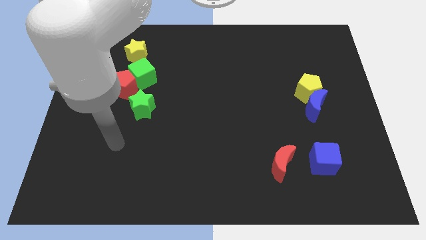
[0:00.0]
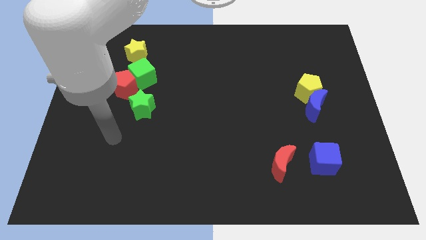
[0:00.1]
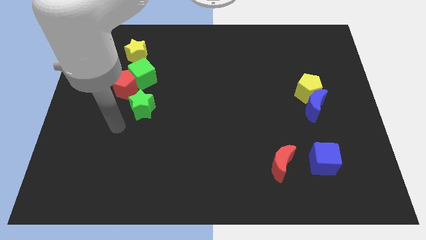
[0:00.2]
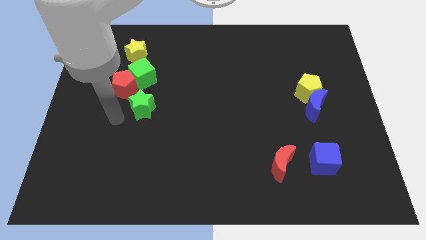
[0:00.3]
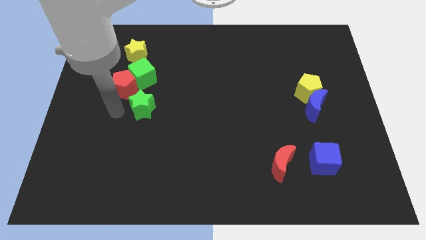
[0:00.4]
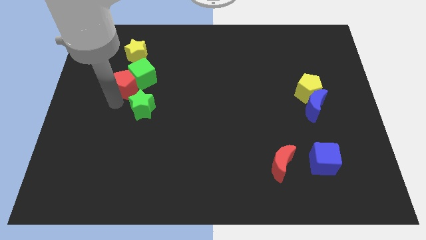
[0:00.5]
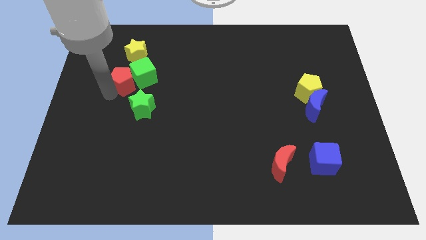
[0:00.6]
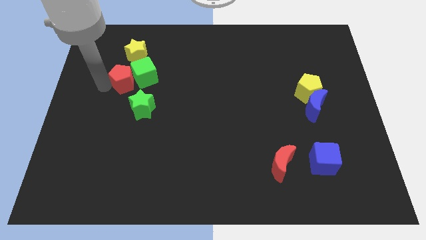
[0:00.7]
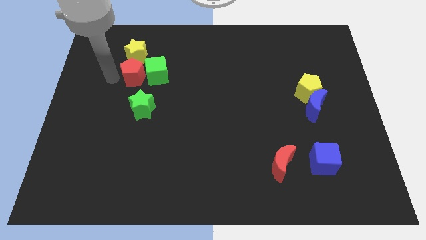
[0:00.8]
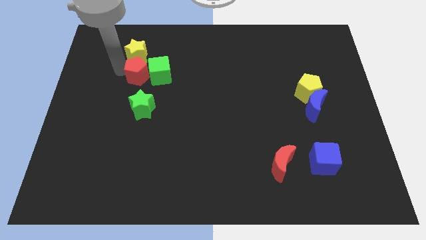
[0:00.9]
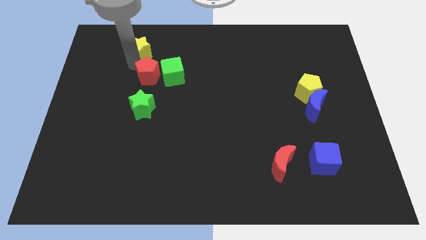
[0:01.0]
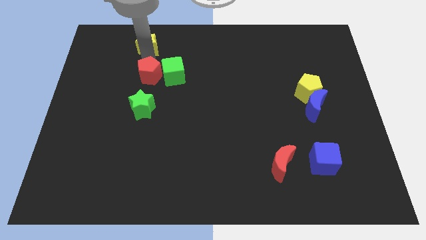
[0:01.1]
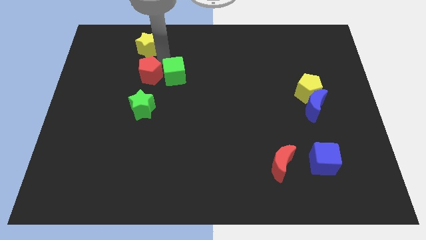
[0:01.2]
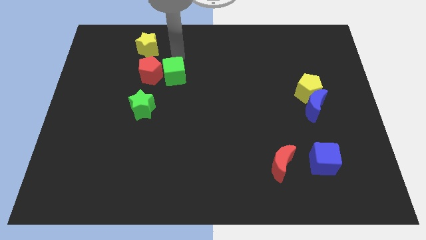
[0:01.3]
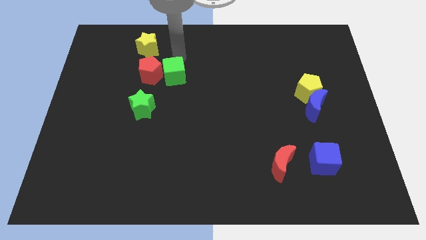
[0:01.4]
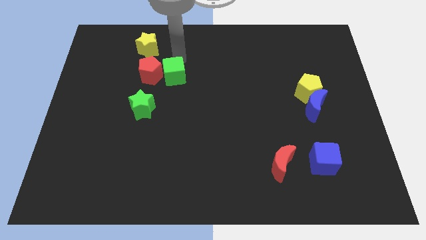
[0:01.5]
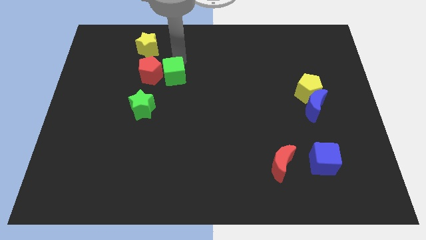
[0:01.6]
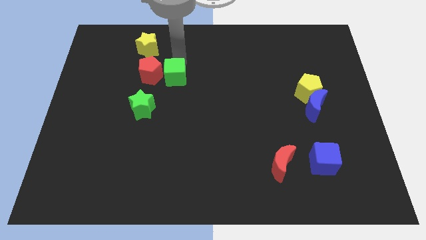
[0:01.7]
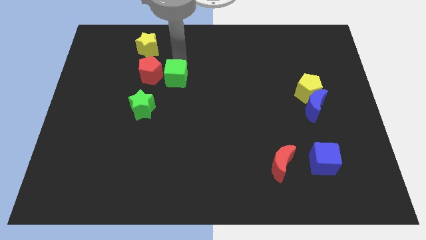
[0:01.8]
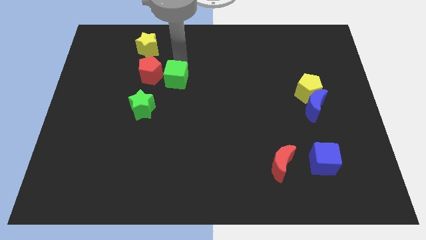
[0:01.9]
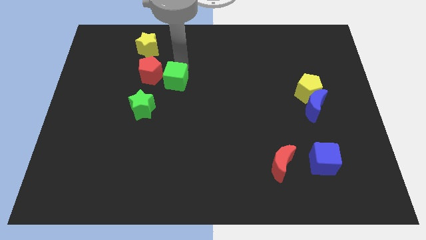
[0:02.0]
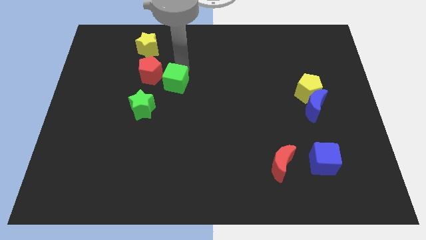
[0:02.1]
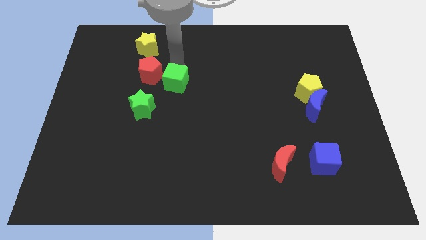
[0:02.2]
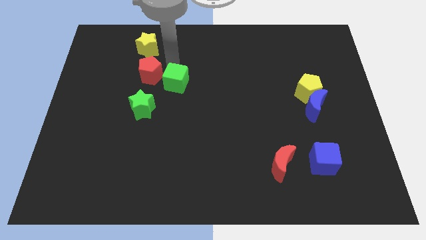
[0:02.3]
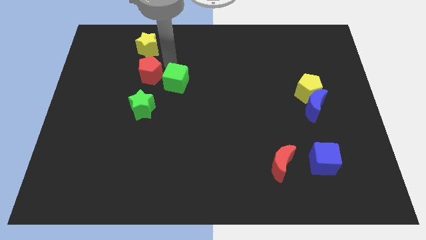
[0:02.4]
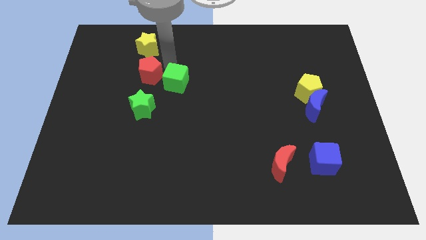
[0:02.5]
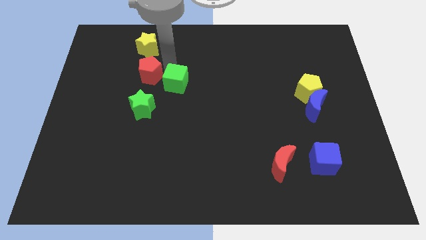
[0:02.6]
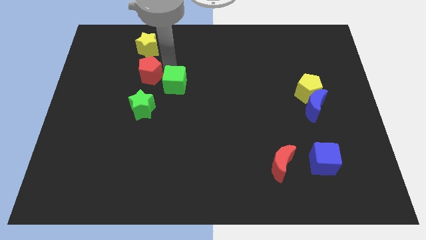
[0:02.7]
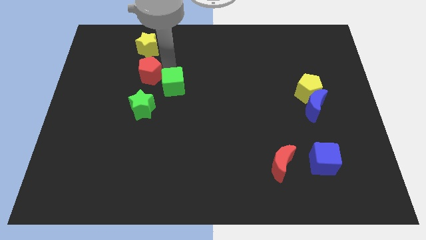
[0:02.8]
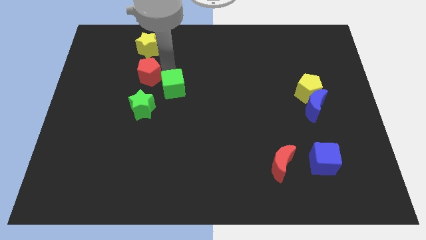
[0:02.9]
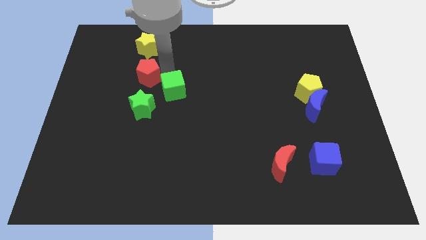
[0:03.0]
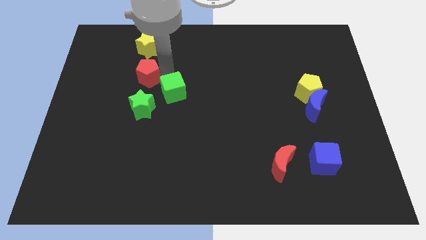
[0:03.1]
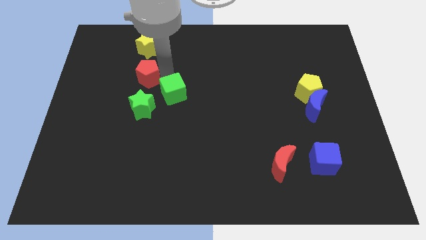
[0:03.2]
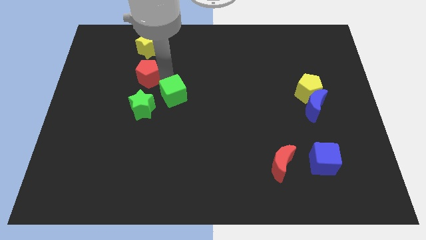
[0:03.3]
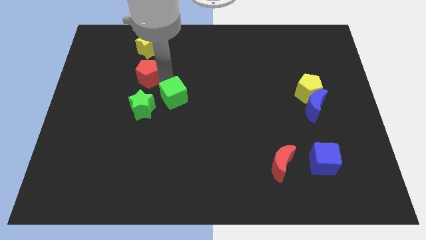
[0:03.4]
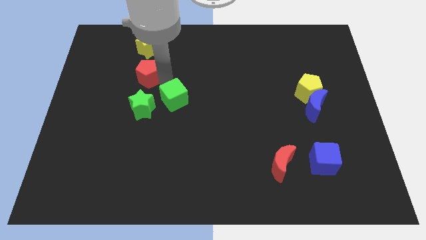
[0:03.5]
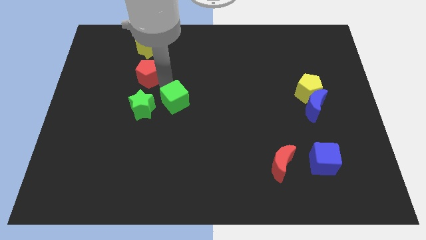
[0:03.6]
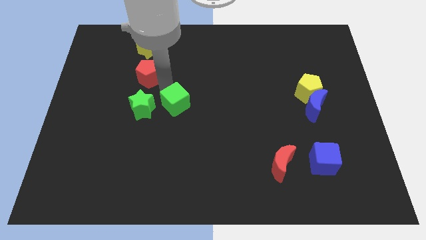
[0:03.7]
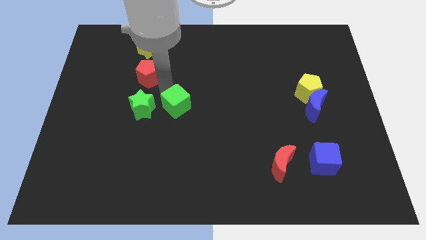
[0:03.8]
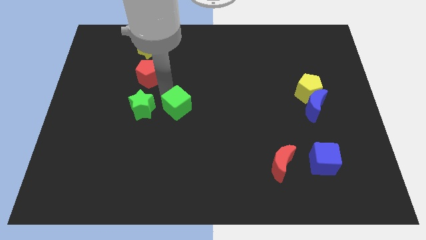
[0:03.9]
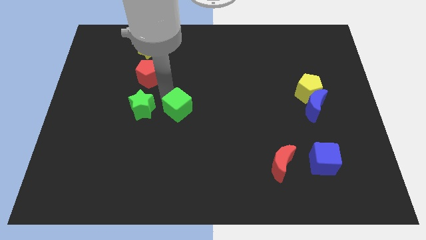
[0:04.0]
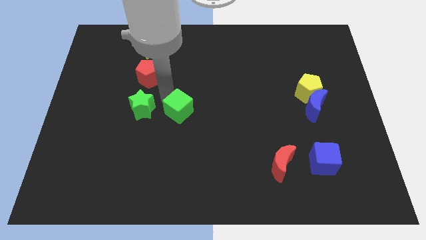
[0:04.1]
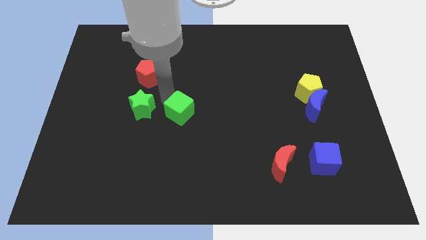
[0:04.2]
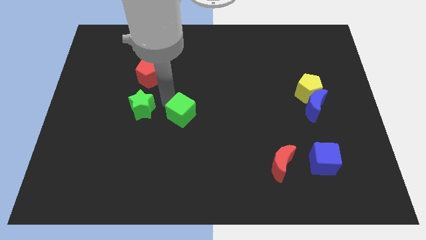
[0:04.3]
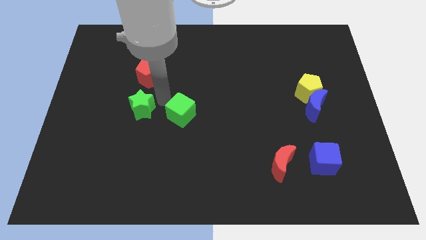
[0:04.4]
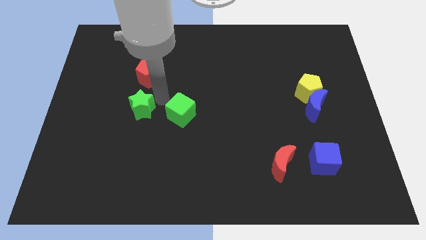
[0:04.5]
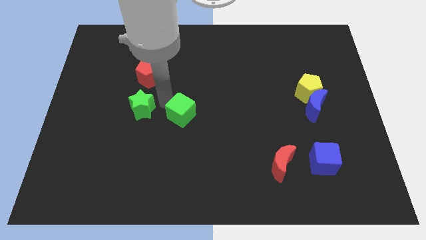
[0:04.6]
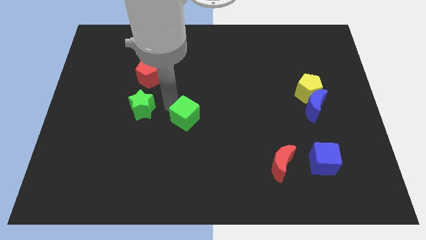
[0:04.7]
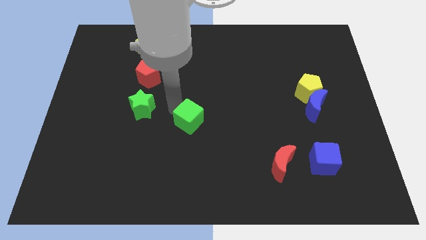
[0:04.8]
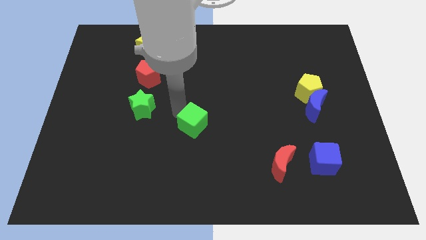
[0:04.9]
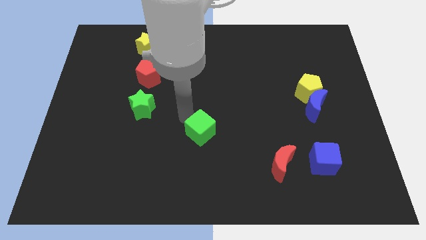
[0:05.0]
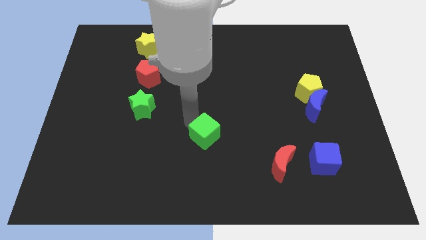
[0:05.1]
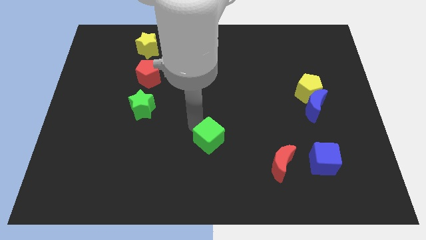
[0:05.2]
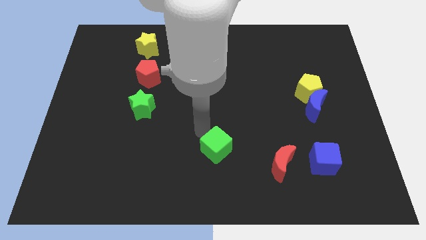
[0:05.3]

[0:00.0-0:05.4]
push the green cube left of the red moon

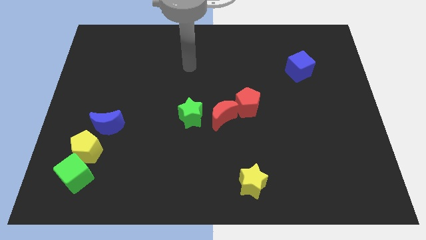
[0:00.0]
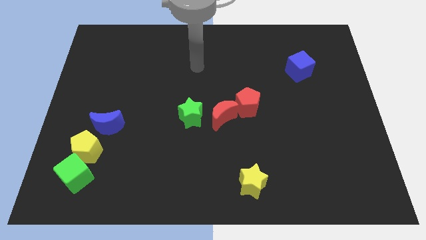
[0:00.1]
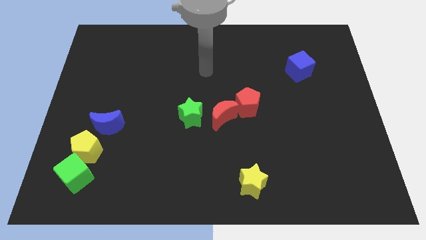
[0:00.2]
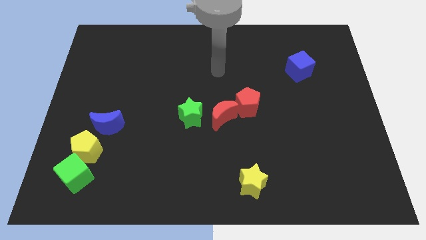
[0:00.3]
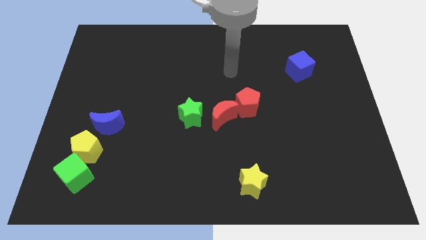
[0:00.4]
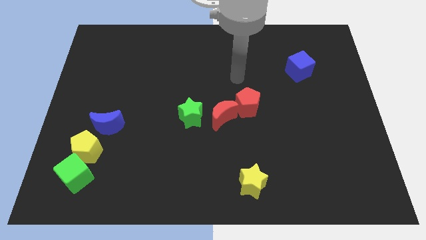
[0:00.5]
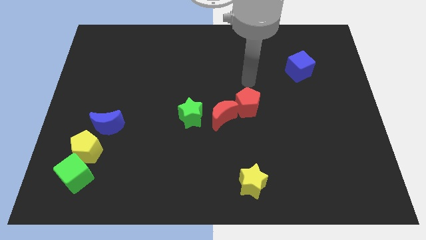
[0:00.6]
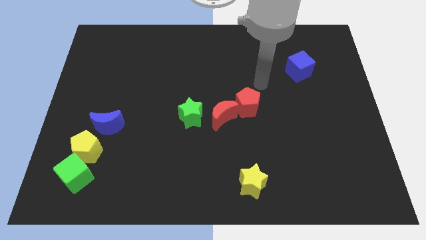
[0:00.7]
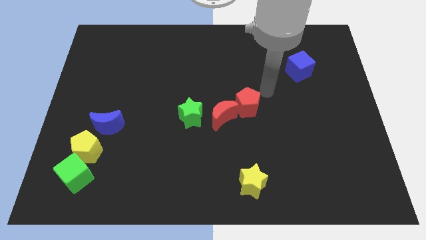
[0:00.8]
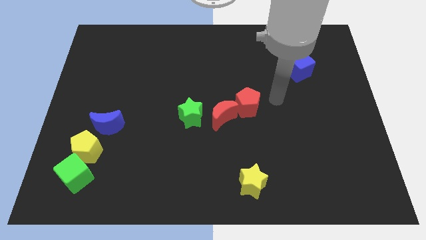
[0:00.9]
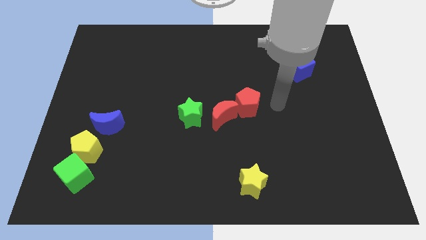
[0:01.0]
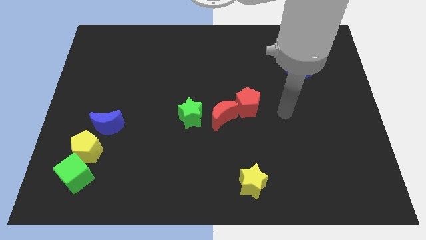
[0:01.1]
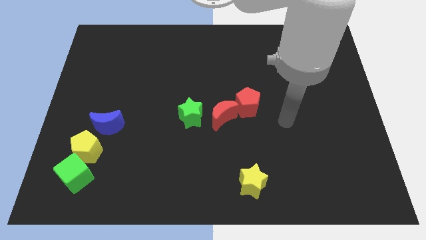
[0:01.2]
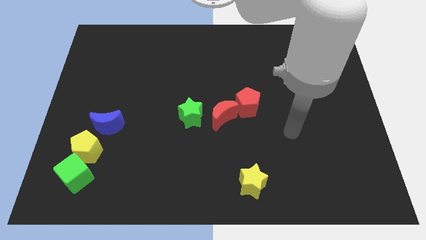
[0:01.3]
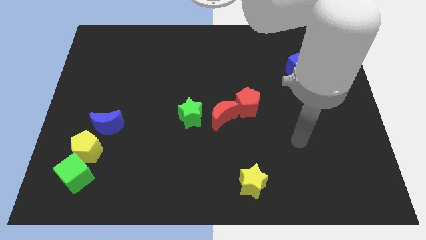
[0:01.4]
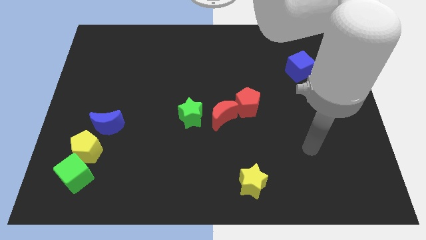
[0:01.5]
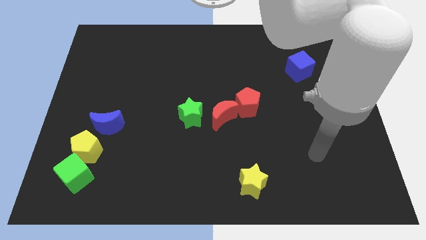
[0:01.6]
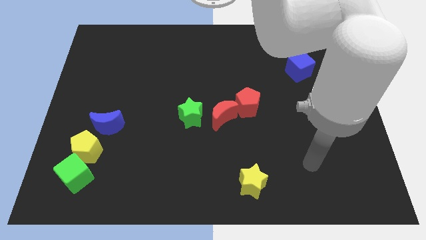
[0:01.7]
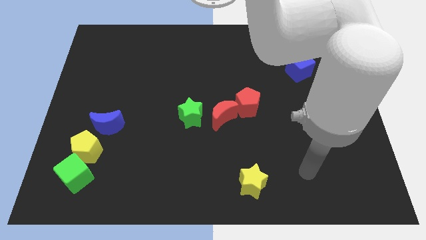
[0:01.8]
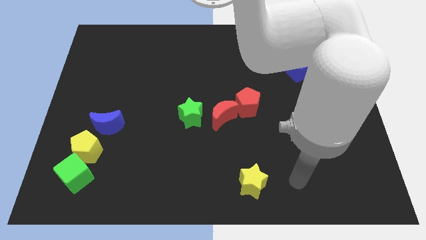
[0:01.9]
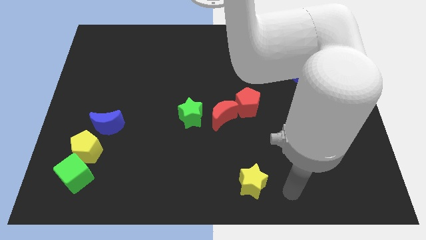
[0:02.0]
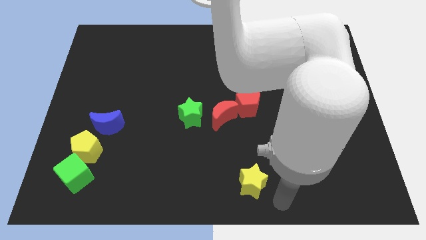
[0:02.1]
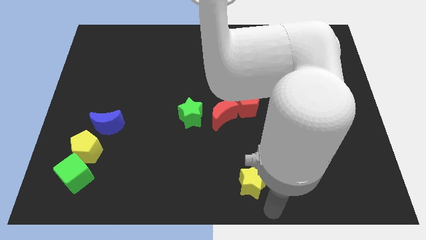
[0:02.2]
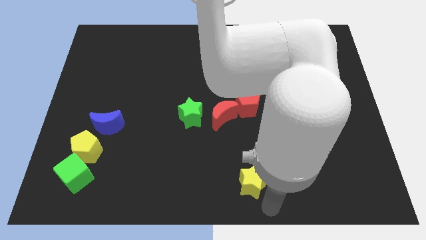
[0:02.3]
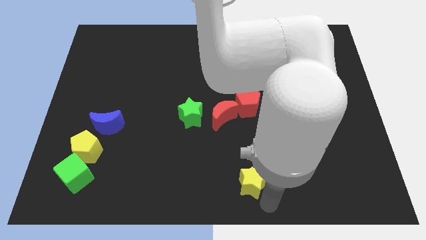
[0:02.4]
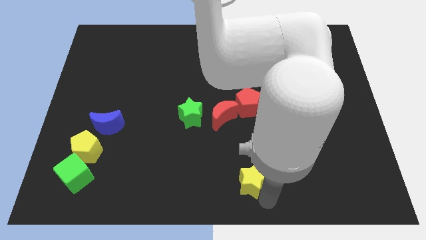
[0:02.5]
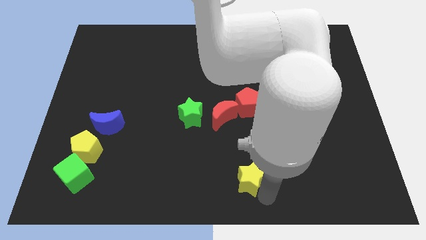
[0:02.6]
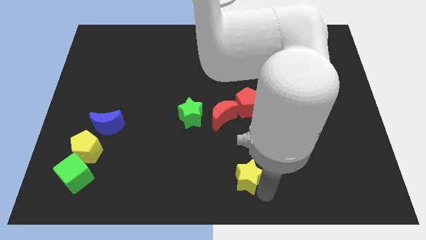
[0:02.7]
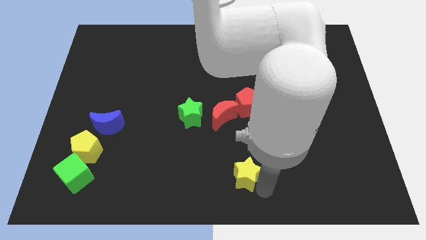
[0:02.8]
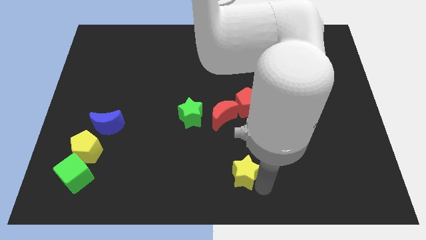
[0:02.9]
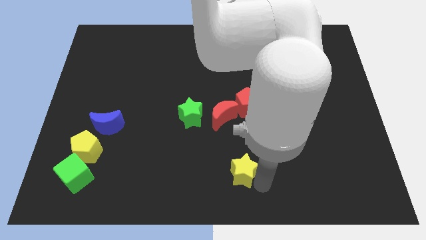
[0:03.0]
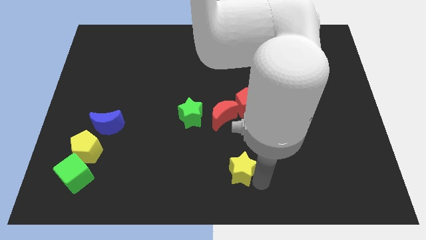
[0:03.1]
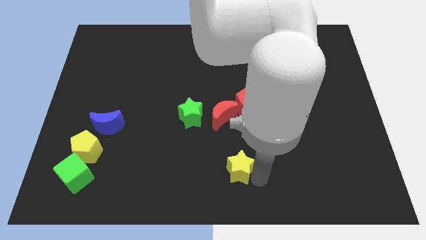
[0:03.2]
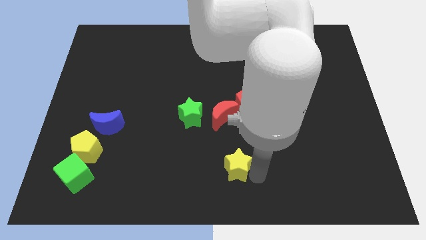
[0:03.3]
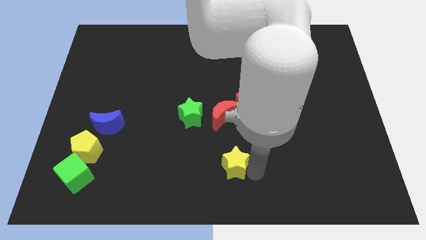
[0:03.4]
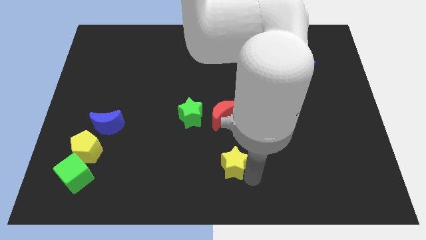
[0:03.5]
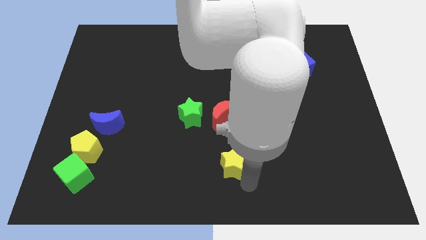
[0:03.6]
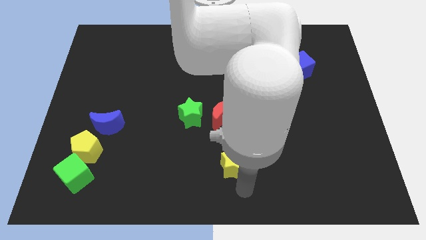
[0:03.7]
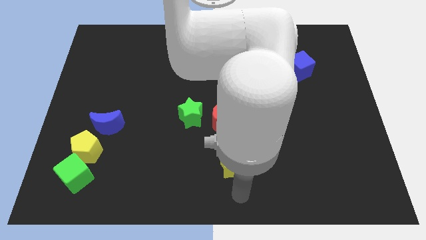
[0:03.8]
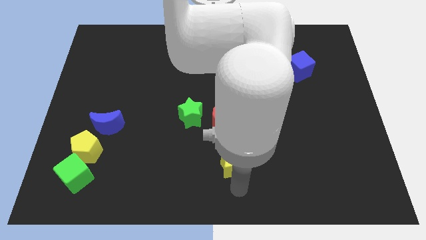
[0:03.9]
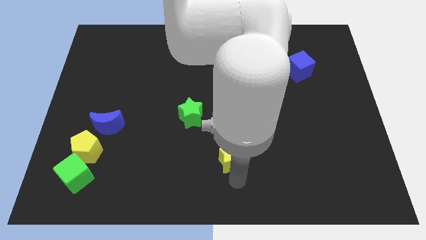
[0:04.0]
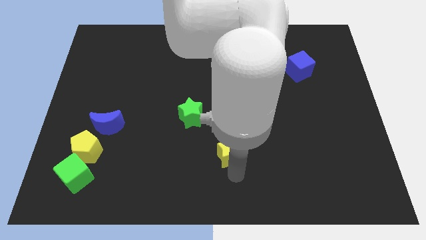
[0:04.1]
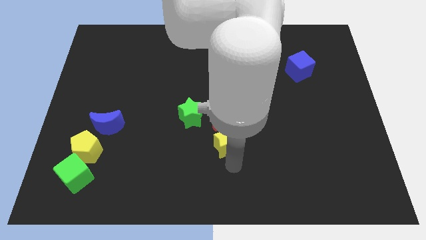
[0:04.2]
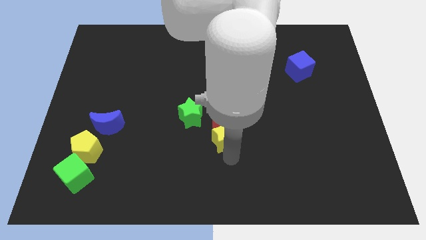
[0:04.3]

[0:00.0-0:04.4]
put the yellow star diagonally down and to the left of the red pentagon
